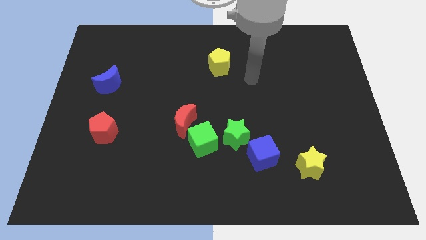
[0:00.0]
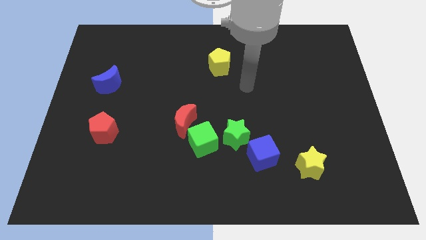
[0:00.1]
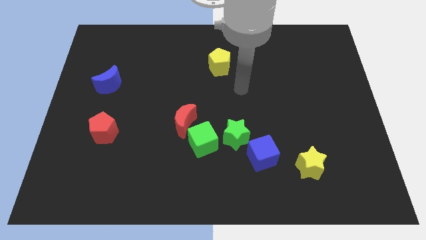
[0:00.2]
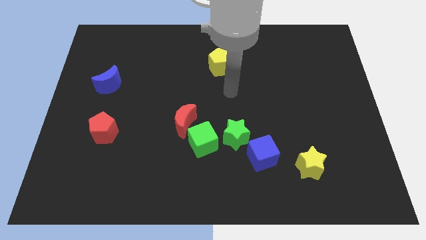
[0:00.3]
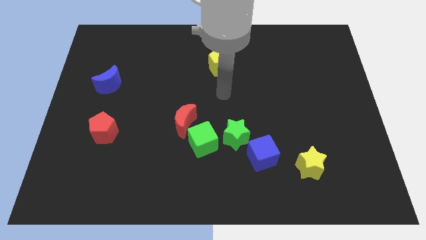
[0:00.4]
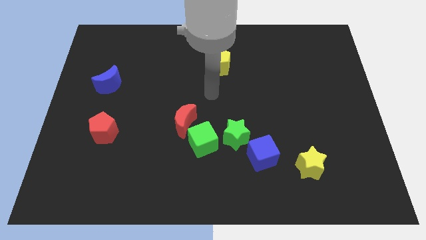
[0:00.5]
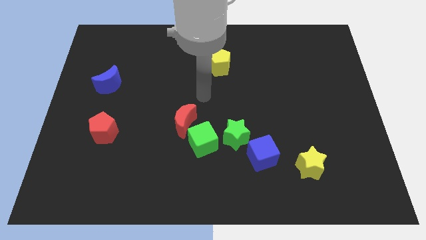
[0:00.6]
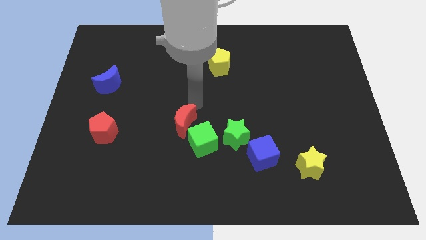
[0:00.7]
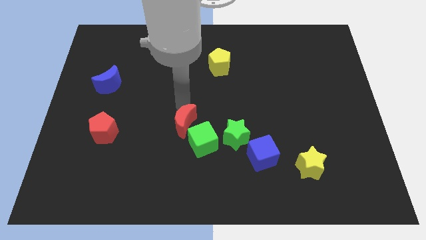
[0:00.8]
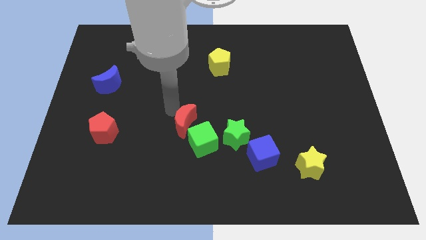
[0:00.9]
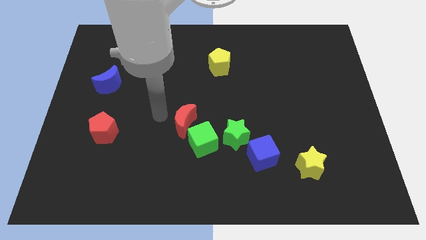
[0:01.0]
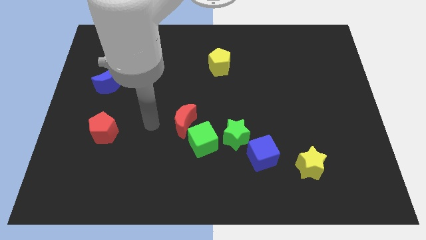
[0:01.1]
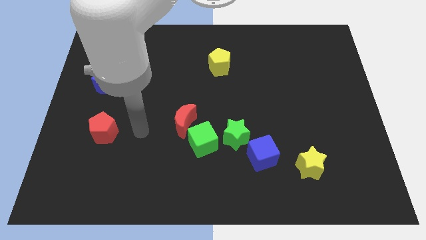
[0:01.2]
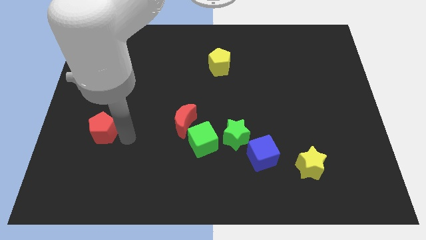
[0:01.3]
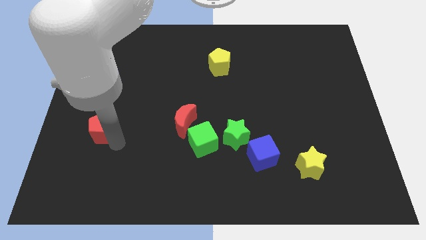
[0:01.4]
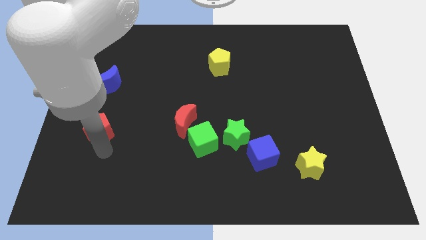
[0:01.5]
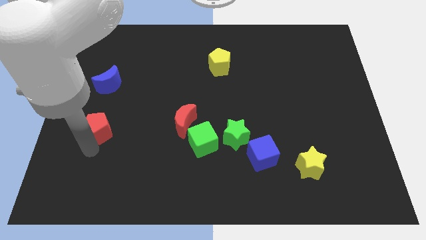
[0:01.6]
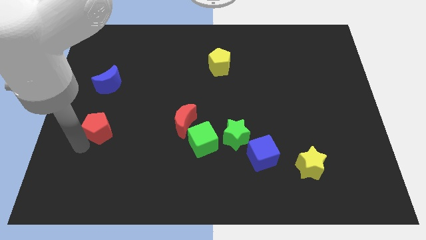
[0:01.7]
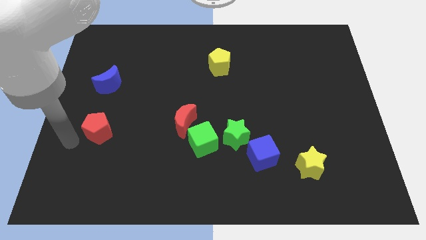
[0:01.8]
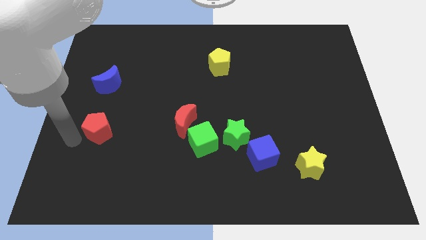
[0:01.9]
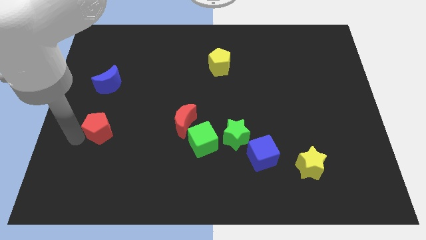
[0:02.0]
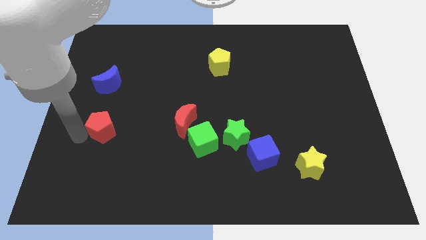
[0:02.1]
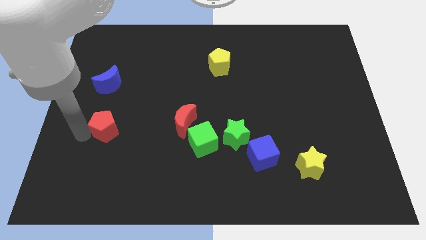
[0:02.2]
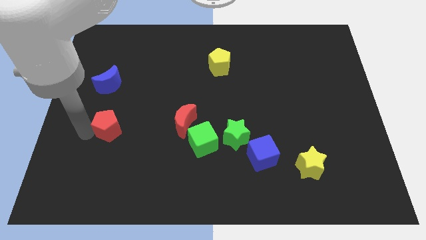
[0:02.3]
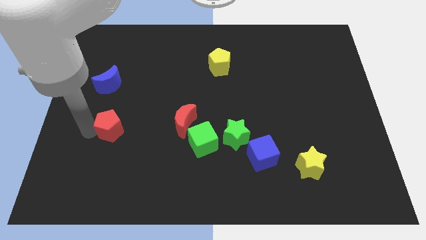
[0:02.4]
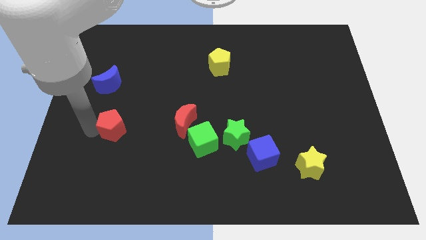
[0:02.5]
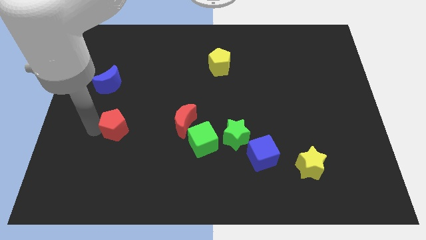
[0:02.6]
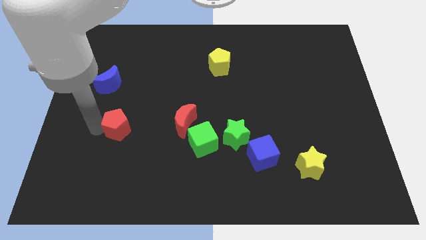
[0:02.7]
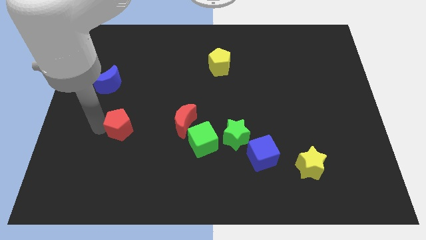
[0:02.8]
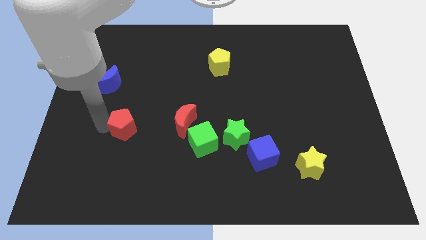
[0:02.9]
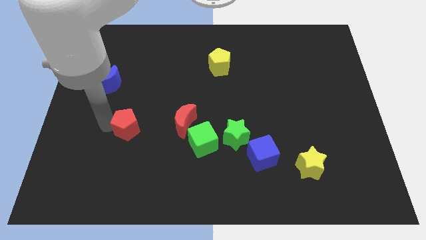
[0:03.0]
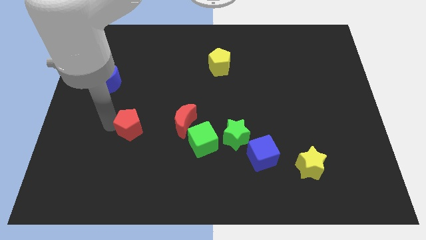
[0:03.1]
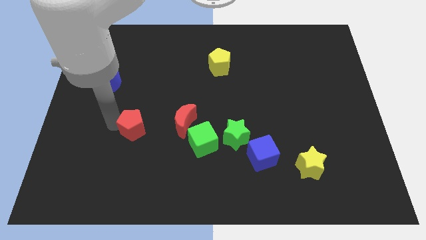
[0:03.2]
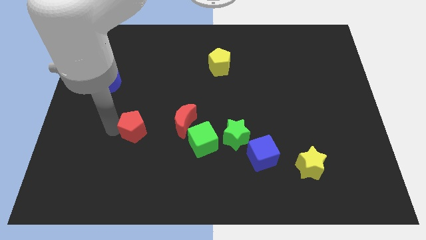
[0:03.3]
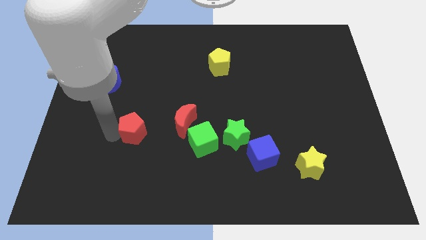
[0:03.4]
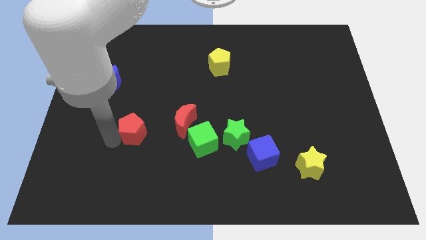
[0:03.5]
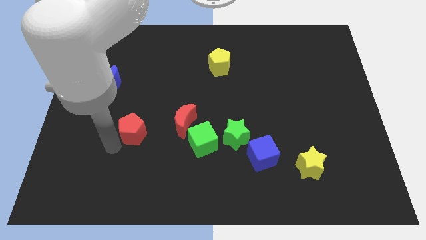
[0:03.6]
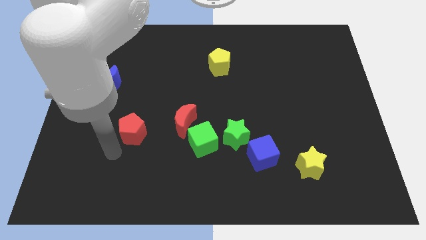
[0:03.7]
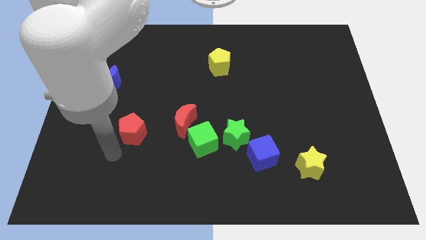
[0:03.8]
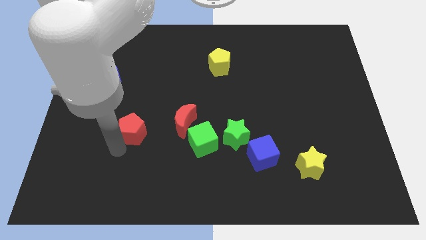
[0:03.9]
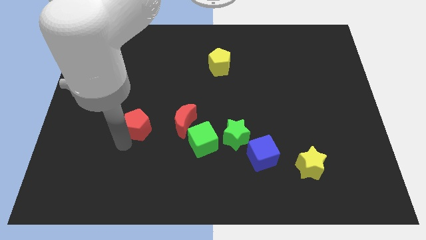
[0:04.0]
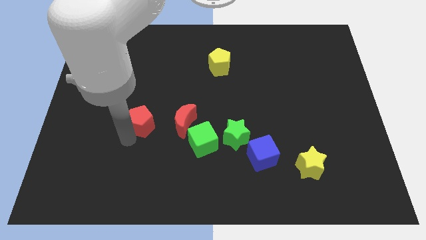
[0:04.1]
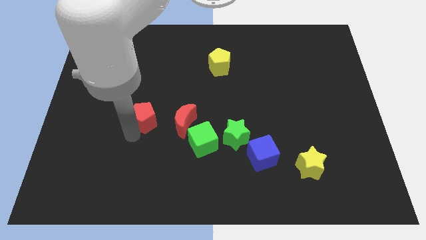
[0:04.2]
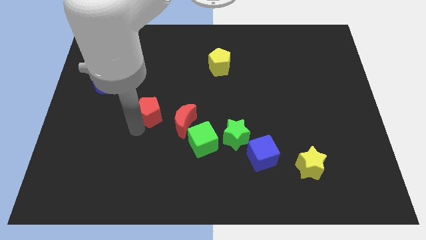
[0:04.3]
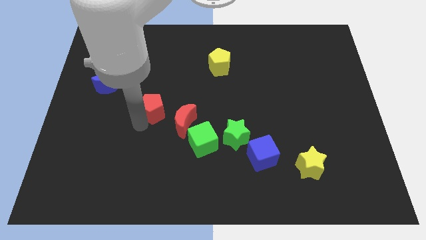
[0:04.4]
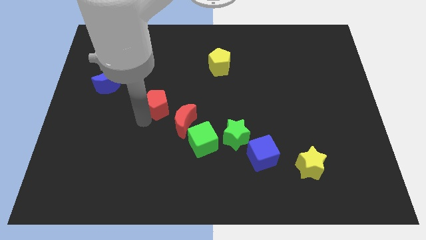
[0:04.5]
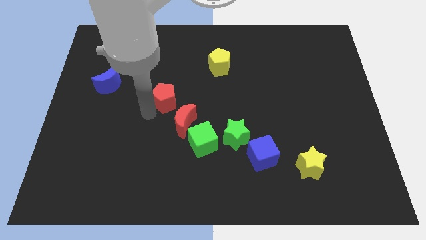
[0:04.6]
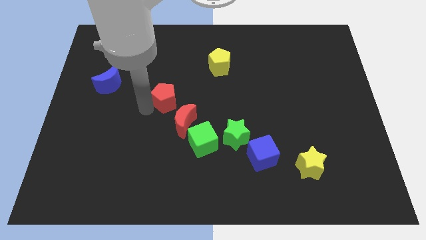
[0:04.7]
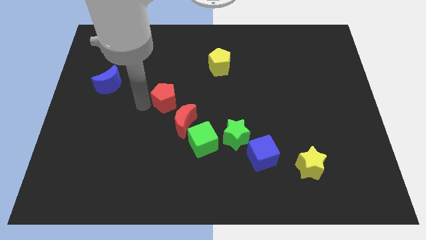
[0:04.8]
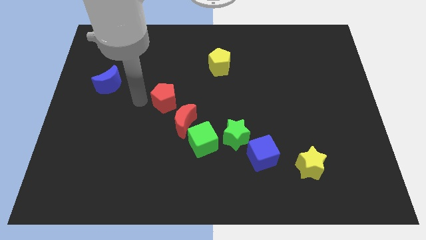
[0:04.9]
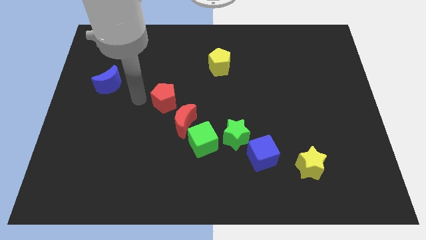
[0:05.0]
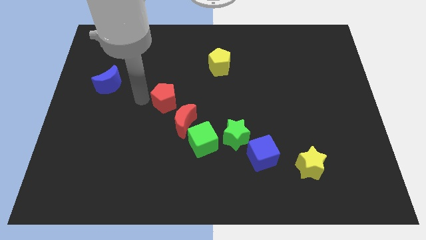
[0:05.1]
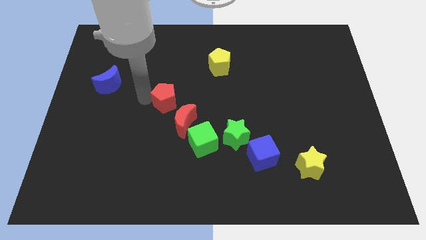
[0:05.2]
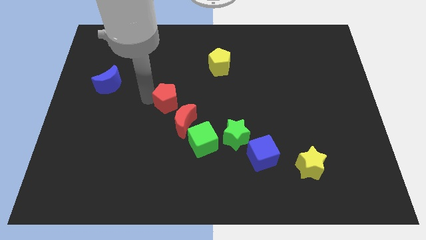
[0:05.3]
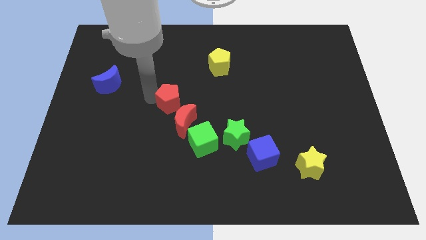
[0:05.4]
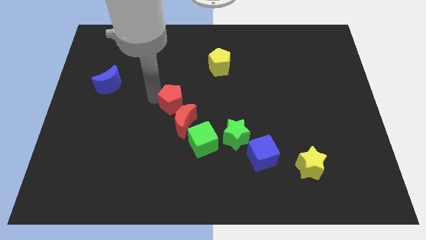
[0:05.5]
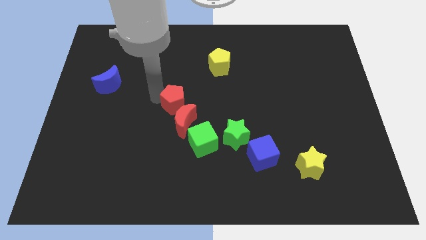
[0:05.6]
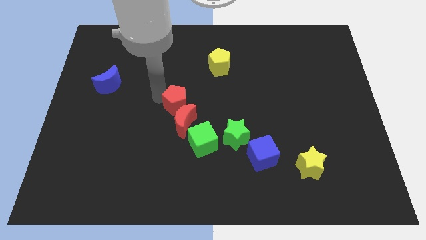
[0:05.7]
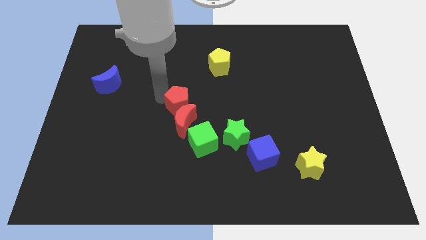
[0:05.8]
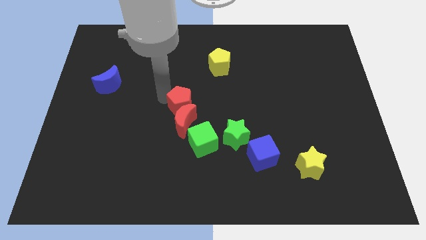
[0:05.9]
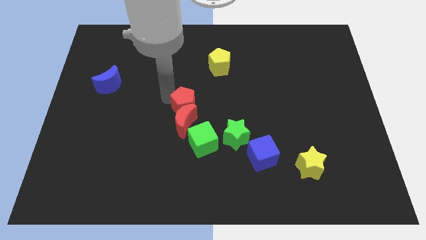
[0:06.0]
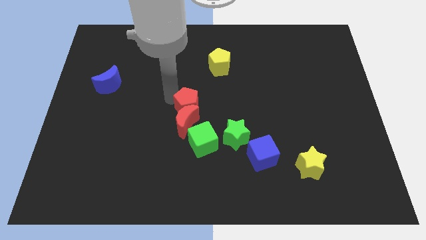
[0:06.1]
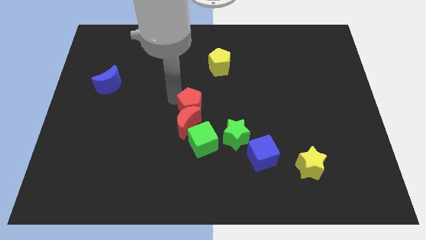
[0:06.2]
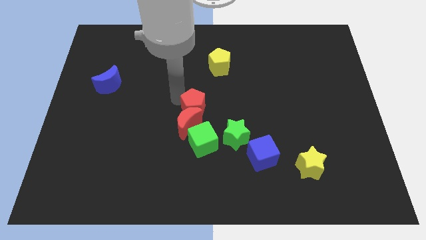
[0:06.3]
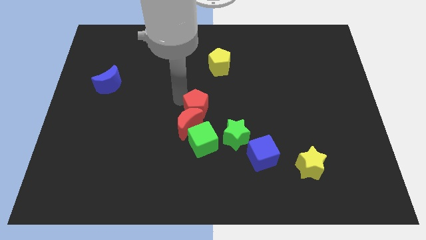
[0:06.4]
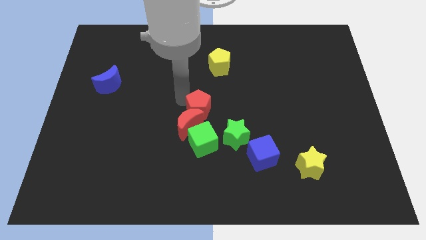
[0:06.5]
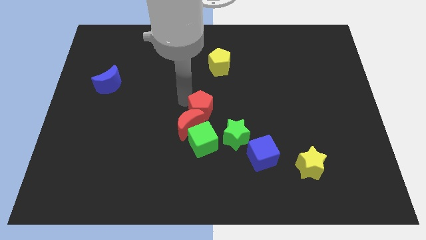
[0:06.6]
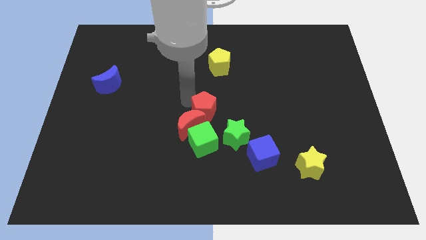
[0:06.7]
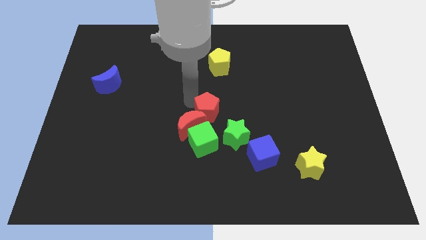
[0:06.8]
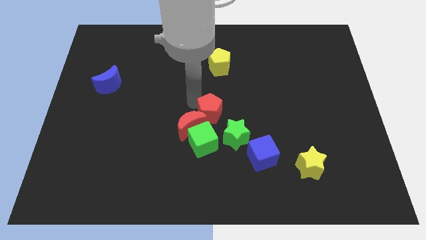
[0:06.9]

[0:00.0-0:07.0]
slide the red pentagon diagonally up and to the right of the green cube

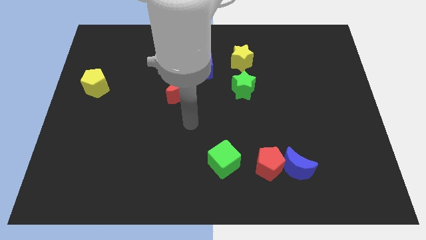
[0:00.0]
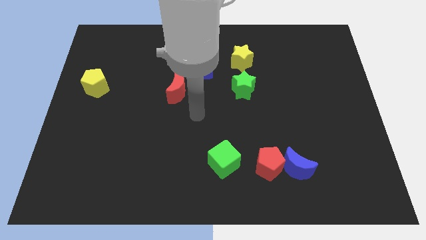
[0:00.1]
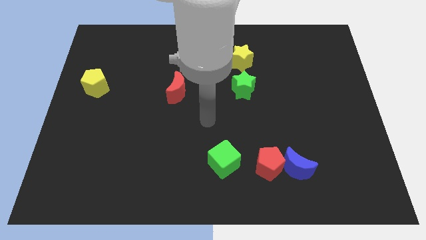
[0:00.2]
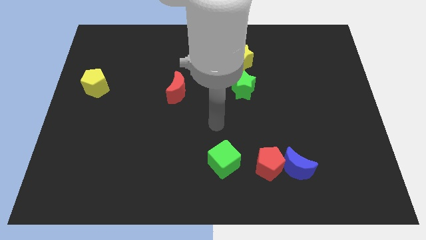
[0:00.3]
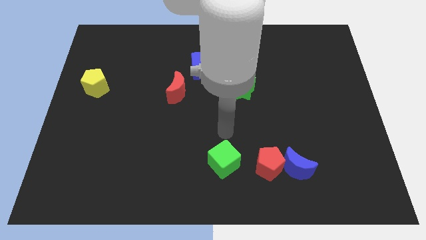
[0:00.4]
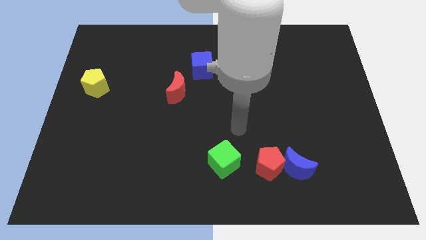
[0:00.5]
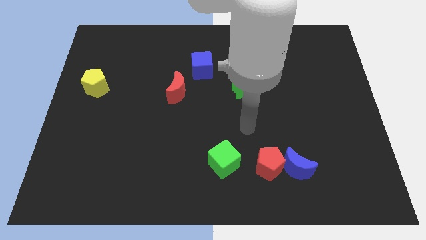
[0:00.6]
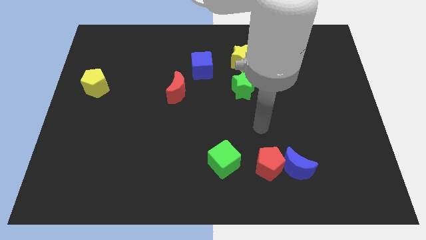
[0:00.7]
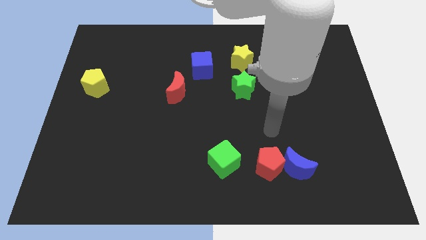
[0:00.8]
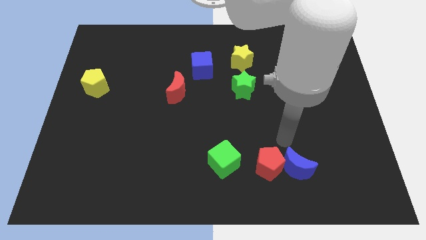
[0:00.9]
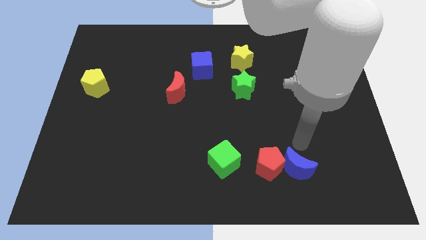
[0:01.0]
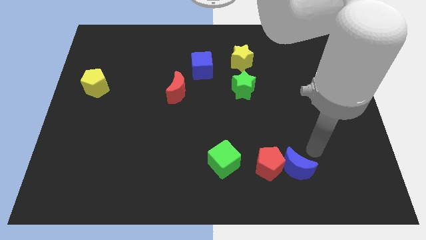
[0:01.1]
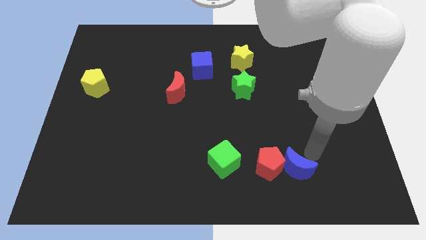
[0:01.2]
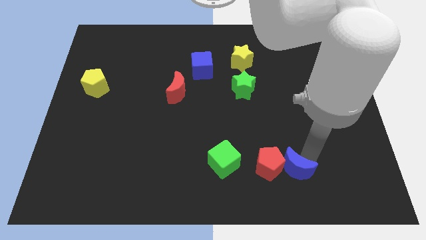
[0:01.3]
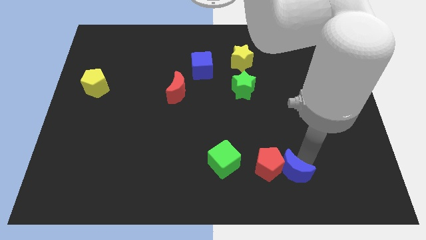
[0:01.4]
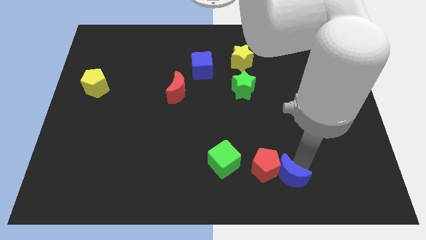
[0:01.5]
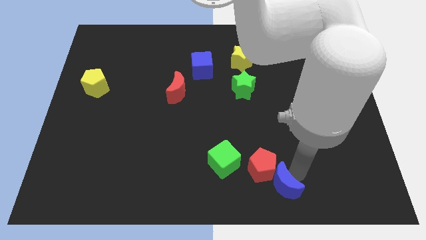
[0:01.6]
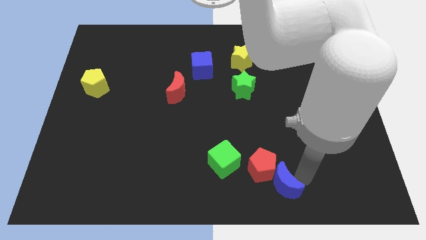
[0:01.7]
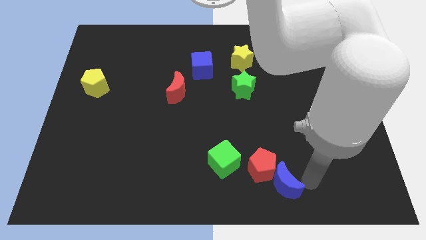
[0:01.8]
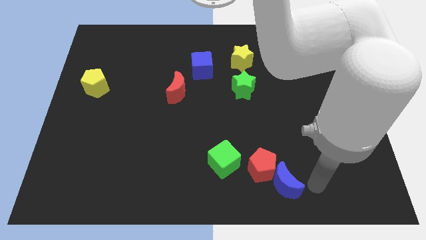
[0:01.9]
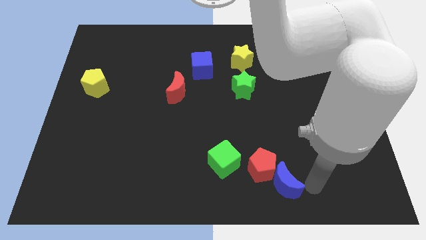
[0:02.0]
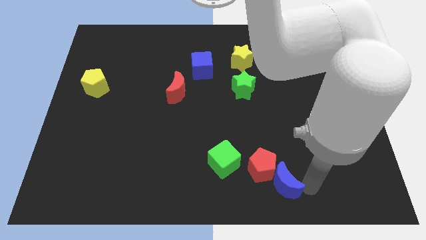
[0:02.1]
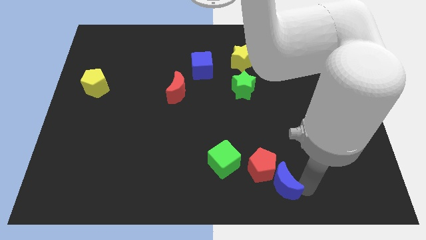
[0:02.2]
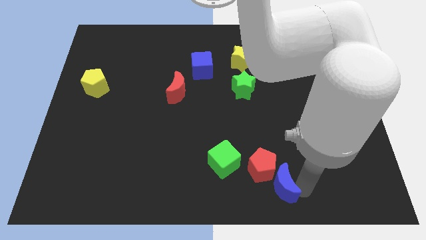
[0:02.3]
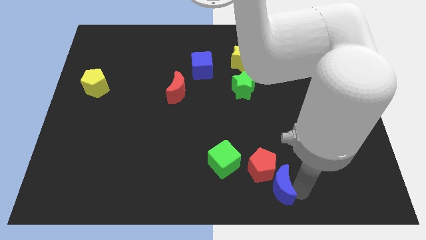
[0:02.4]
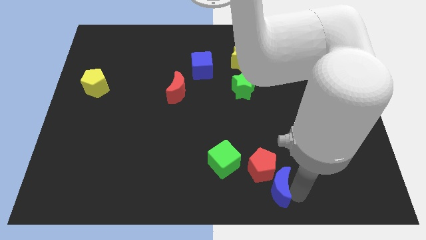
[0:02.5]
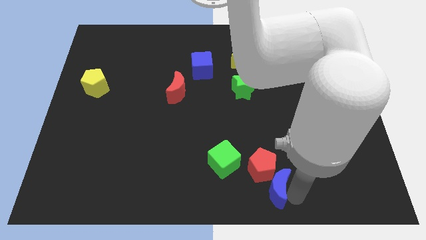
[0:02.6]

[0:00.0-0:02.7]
put the blue moon to the bottom right of the green cube
